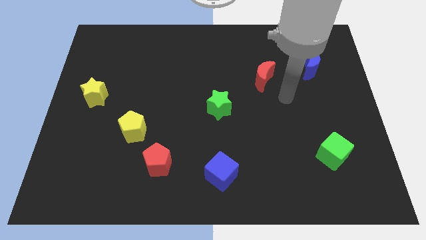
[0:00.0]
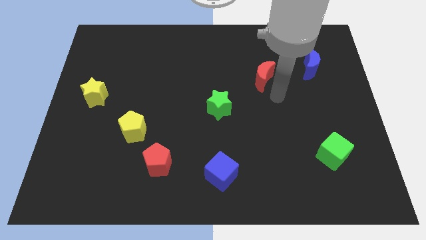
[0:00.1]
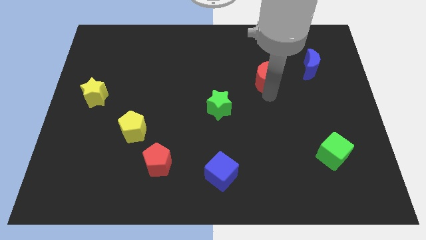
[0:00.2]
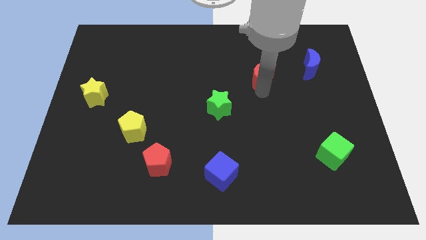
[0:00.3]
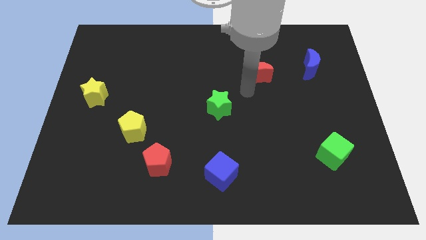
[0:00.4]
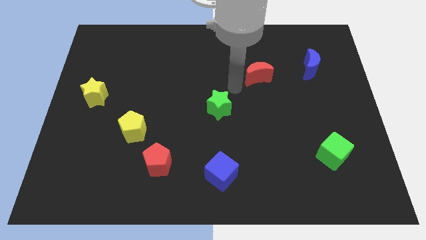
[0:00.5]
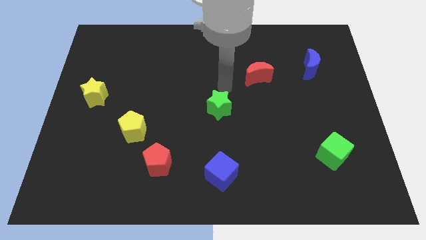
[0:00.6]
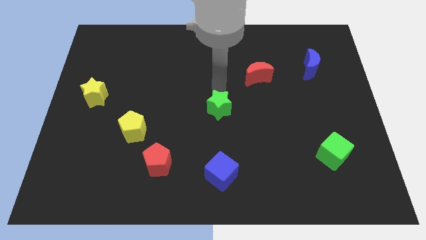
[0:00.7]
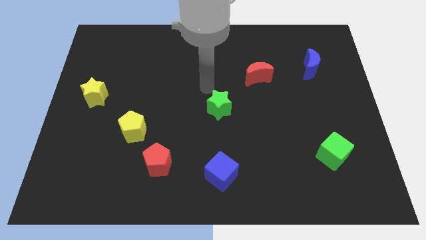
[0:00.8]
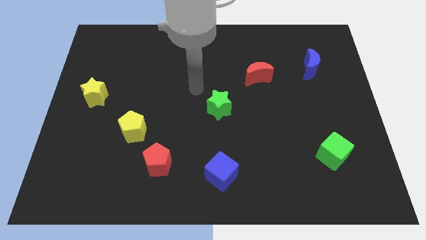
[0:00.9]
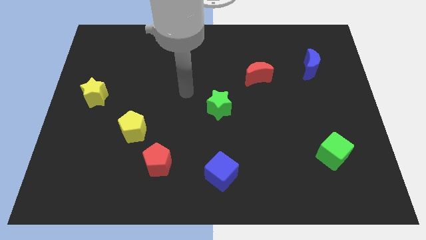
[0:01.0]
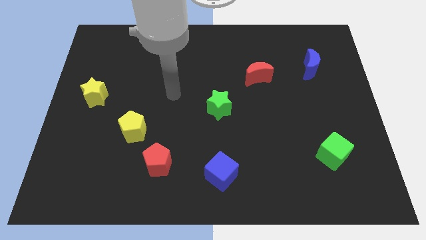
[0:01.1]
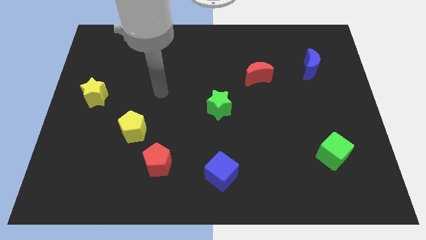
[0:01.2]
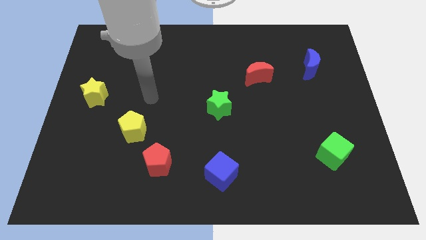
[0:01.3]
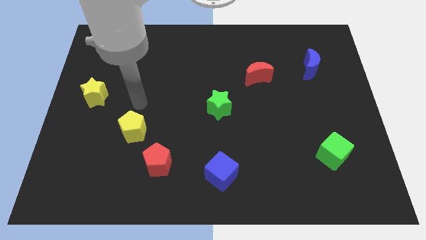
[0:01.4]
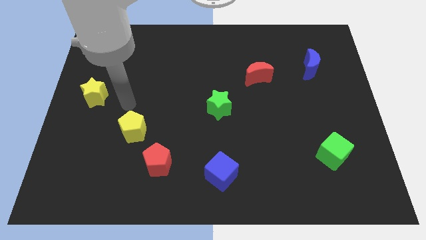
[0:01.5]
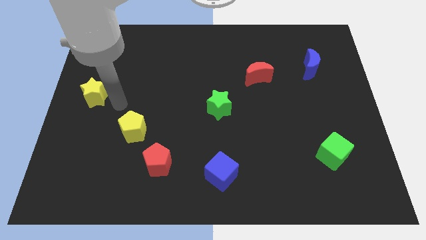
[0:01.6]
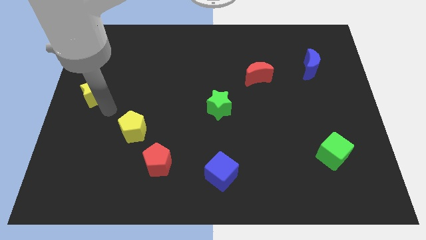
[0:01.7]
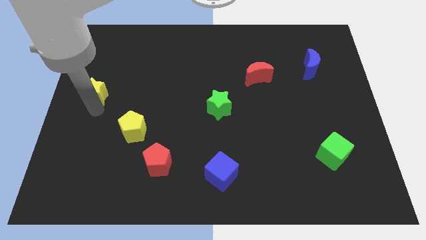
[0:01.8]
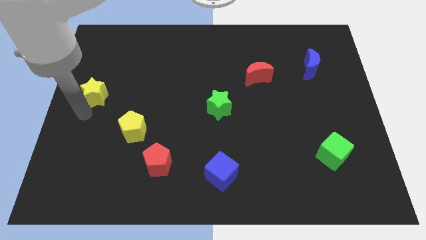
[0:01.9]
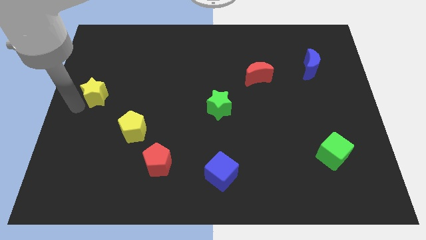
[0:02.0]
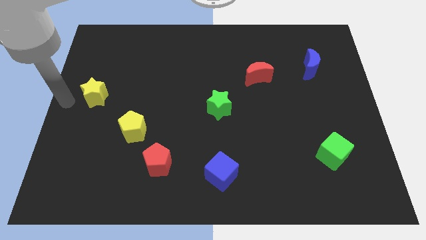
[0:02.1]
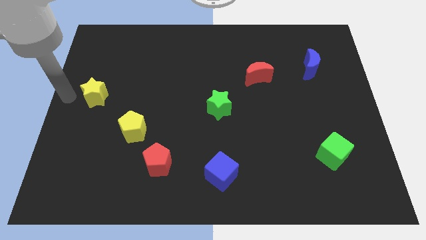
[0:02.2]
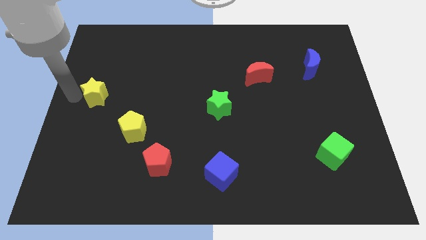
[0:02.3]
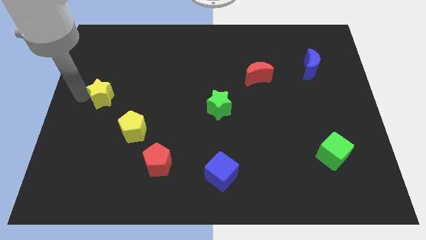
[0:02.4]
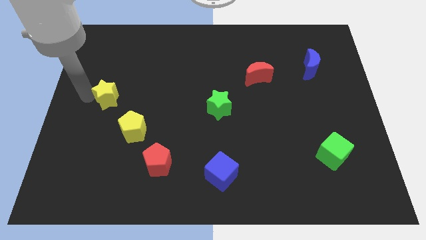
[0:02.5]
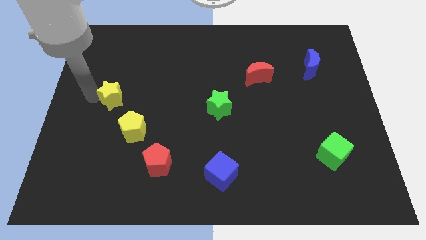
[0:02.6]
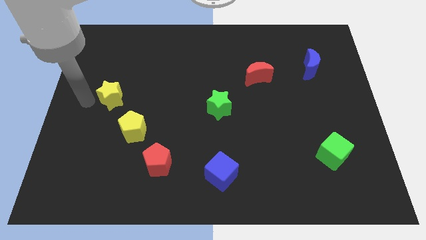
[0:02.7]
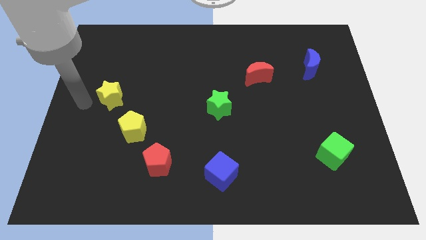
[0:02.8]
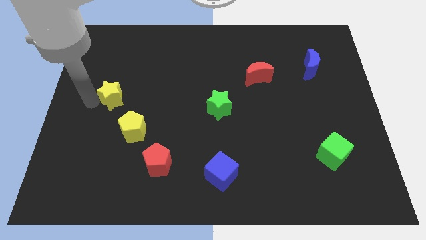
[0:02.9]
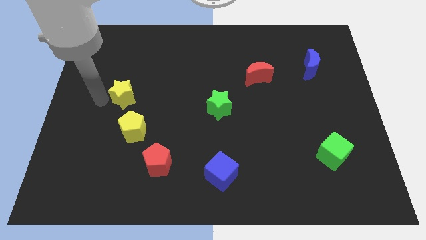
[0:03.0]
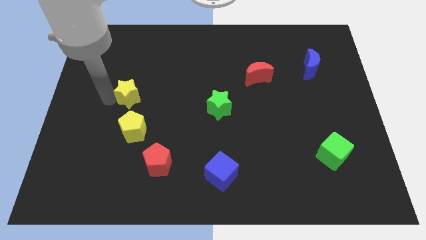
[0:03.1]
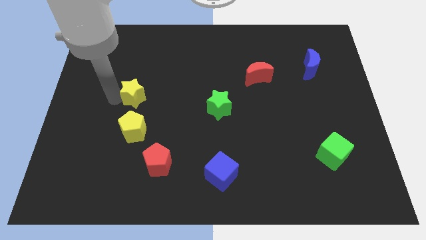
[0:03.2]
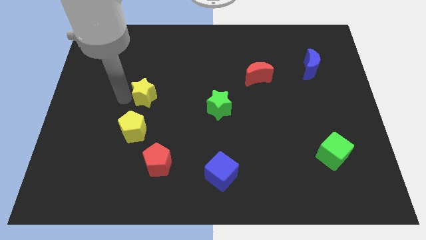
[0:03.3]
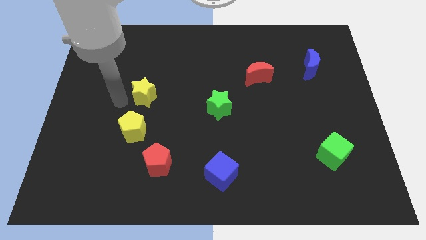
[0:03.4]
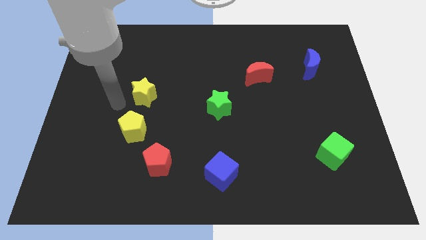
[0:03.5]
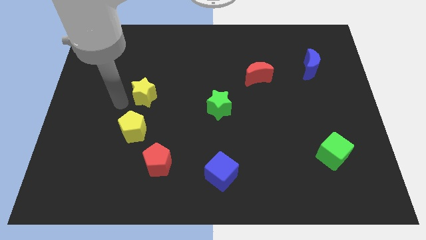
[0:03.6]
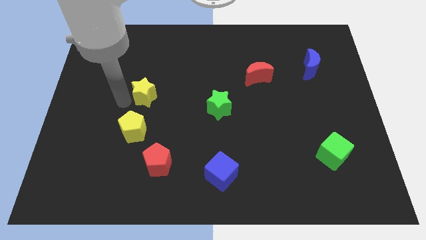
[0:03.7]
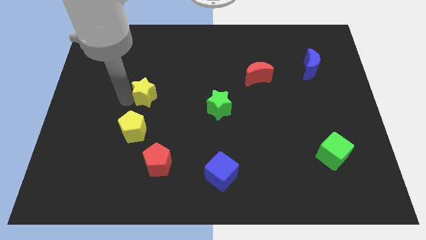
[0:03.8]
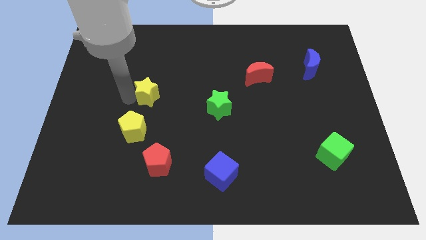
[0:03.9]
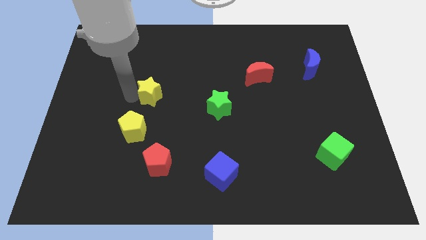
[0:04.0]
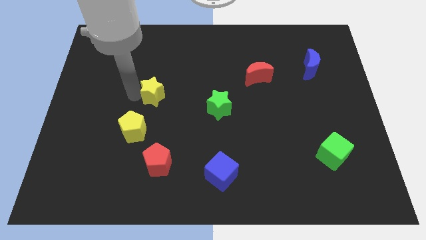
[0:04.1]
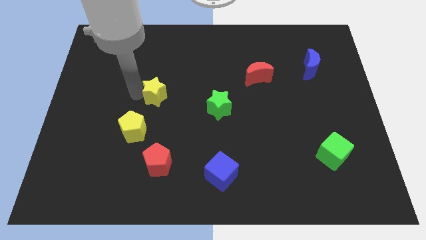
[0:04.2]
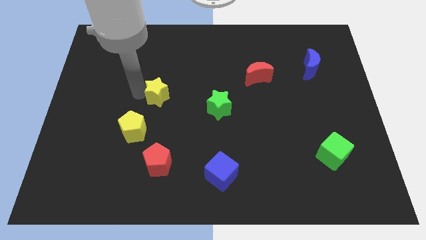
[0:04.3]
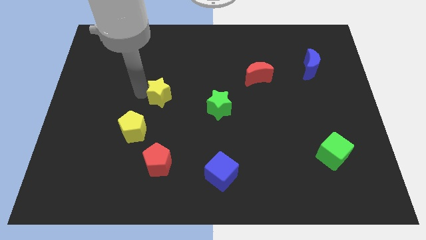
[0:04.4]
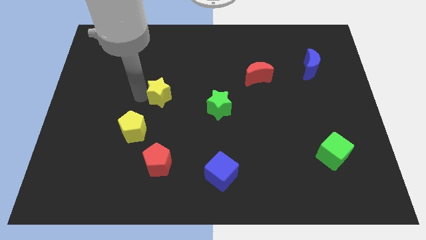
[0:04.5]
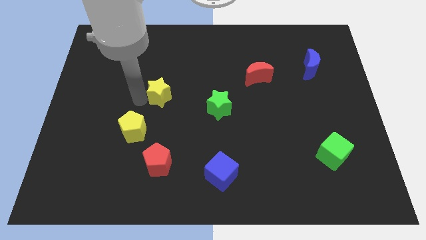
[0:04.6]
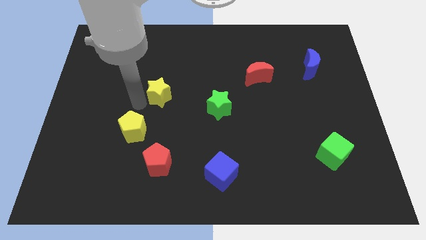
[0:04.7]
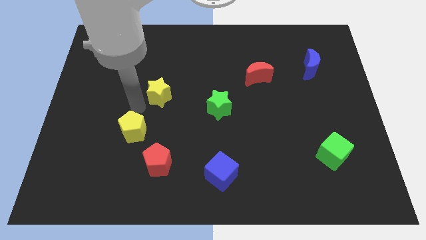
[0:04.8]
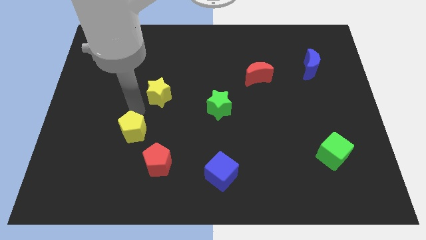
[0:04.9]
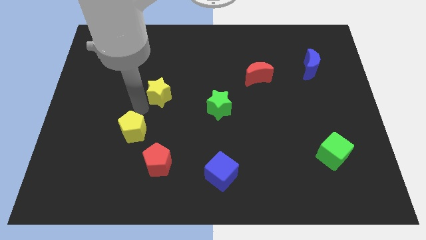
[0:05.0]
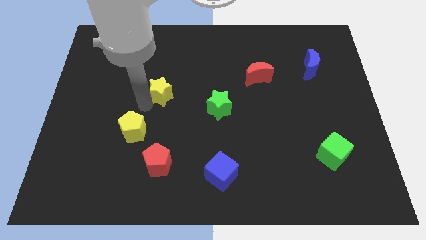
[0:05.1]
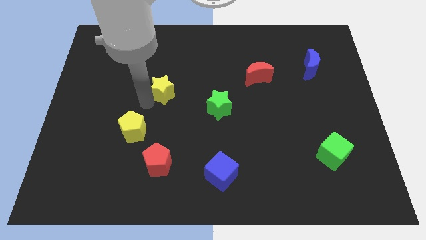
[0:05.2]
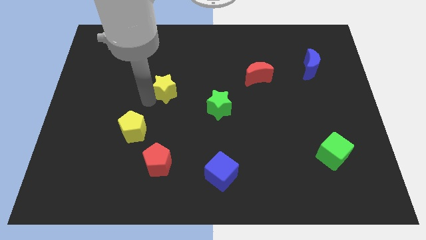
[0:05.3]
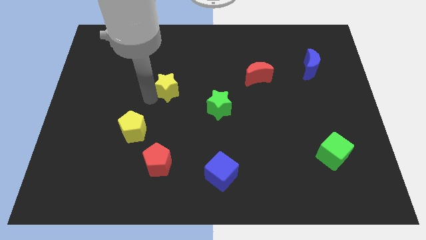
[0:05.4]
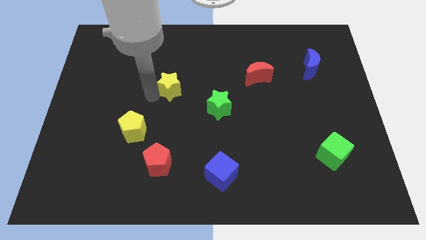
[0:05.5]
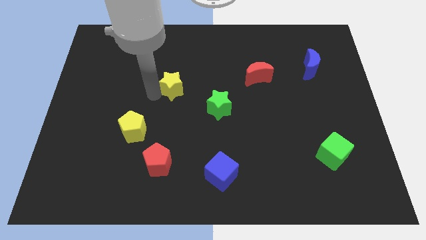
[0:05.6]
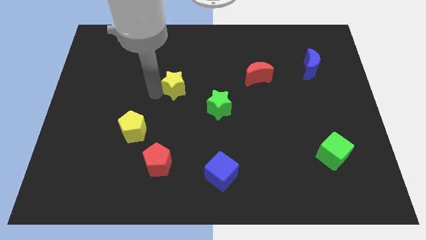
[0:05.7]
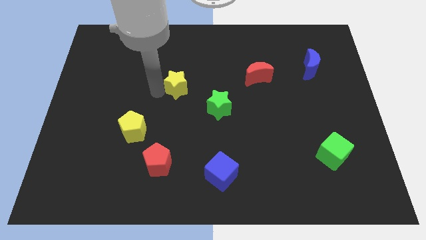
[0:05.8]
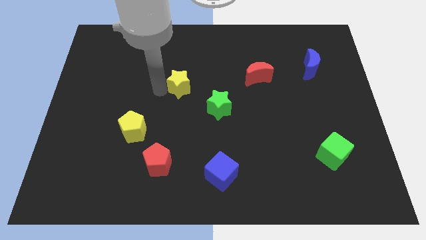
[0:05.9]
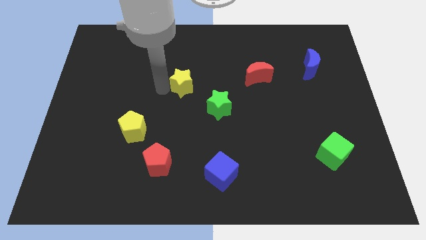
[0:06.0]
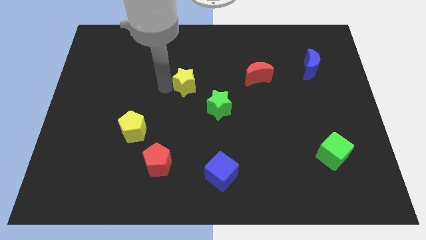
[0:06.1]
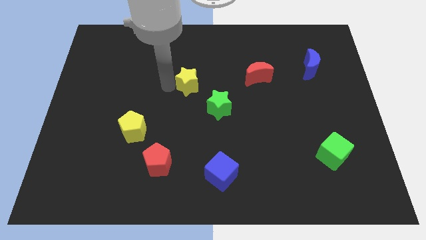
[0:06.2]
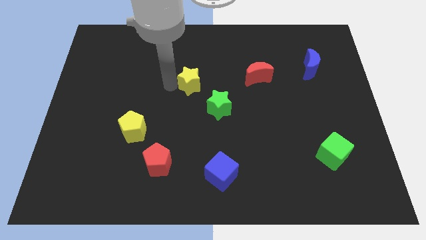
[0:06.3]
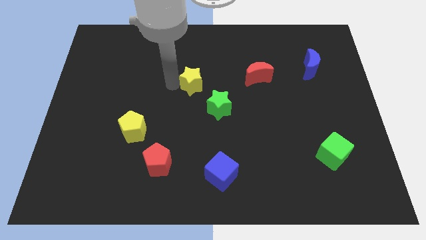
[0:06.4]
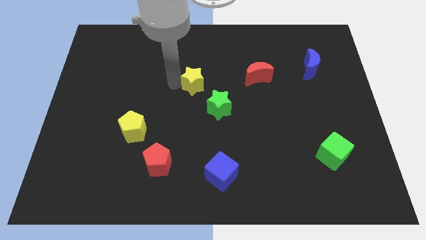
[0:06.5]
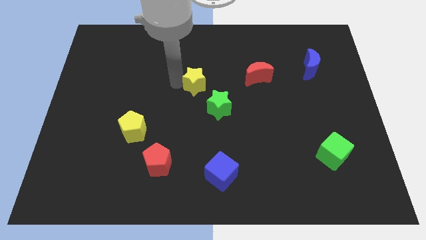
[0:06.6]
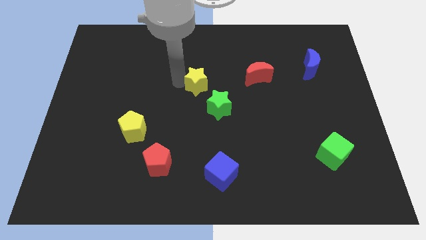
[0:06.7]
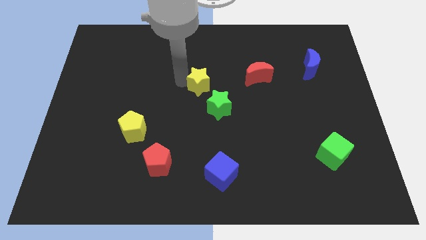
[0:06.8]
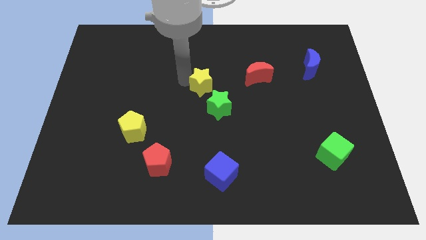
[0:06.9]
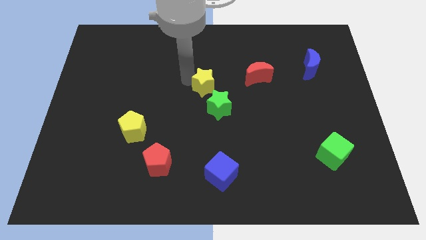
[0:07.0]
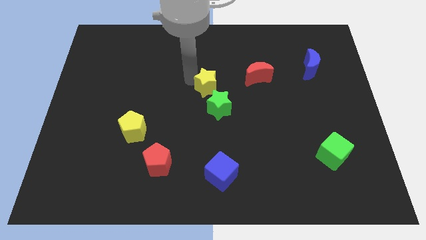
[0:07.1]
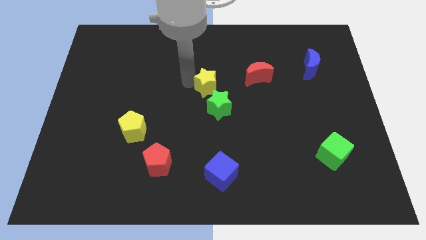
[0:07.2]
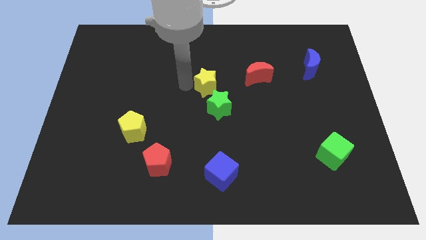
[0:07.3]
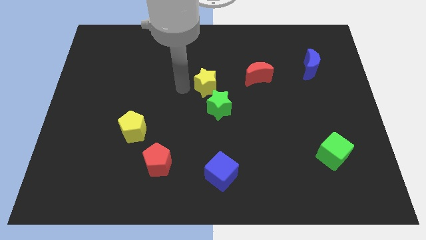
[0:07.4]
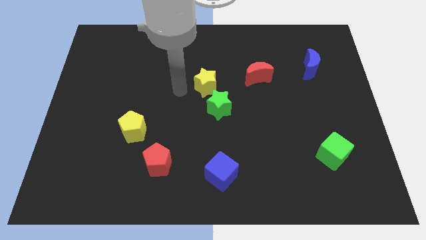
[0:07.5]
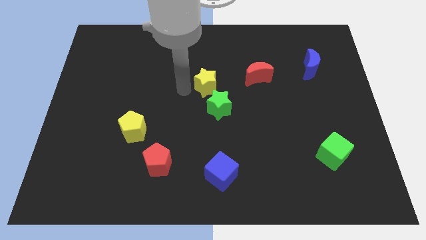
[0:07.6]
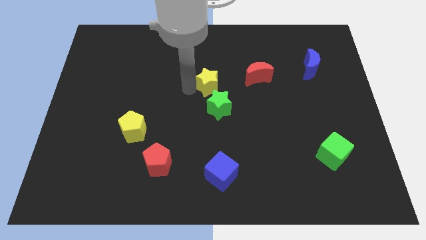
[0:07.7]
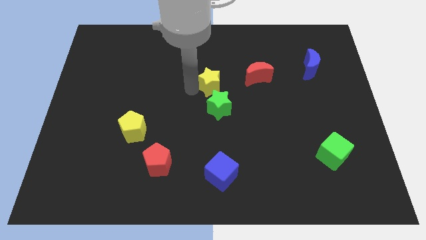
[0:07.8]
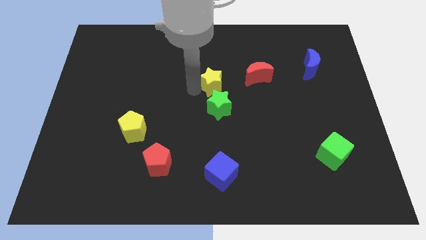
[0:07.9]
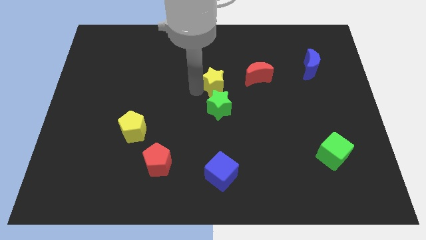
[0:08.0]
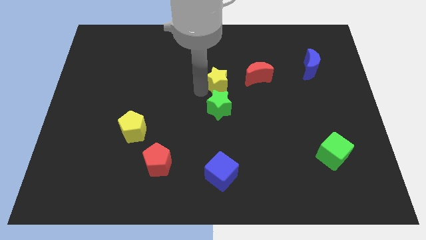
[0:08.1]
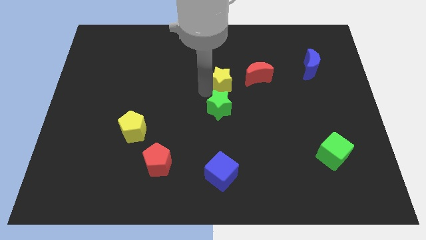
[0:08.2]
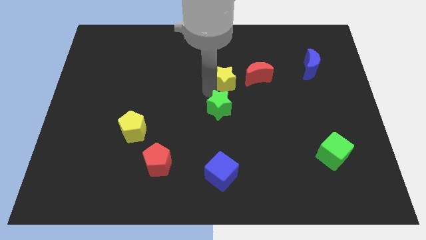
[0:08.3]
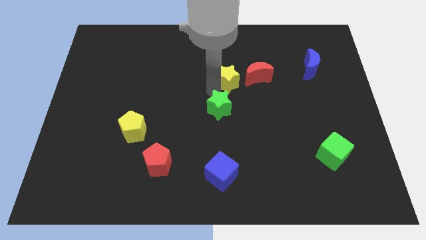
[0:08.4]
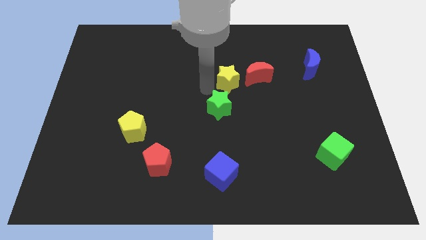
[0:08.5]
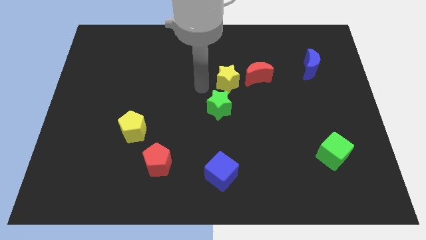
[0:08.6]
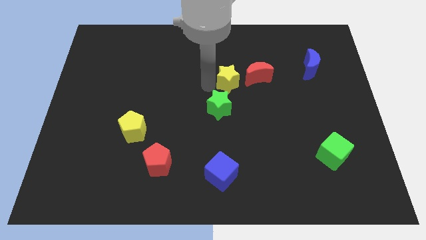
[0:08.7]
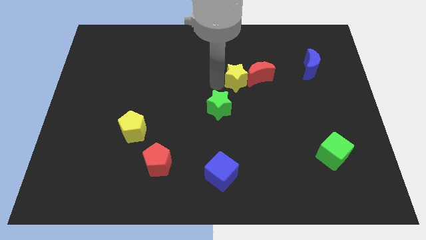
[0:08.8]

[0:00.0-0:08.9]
slide the yellow star close to the red moon
